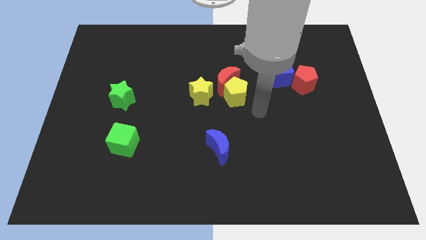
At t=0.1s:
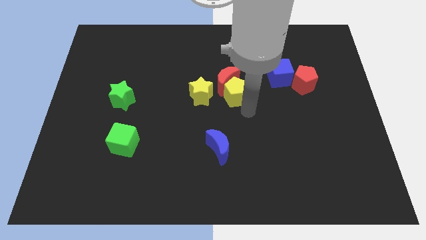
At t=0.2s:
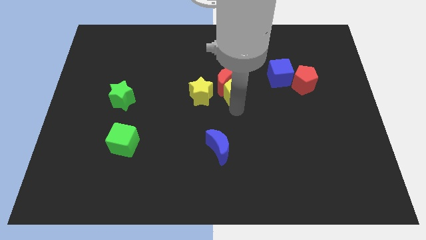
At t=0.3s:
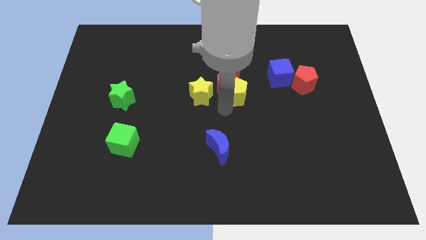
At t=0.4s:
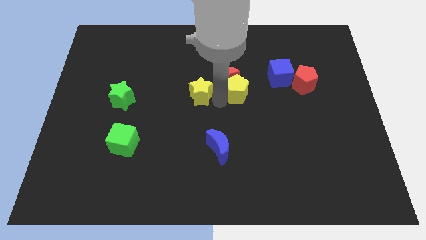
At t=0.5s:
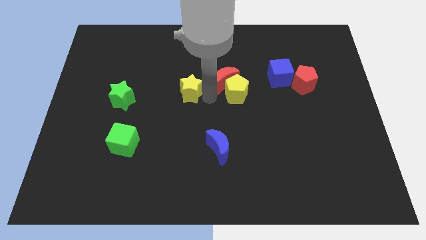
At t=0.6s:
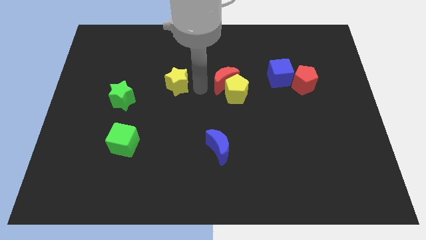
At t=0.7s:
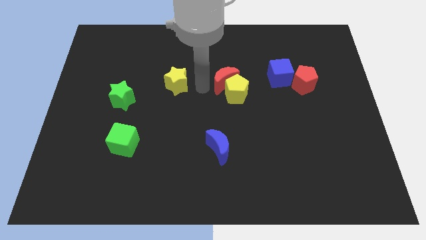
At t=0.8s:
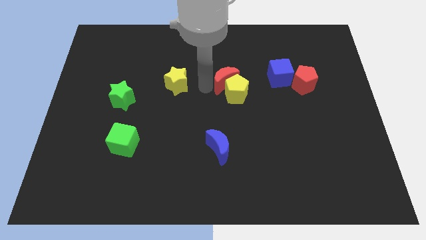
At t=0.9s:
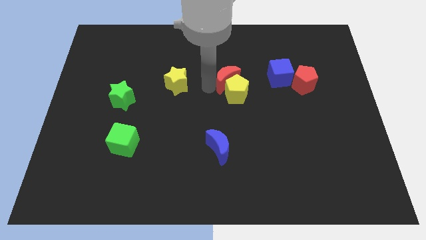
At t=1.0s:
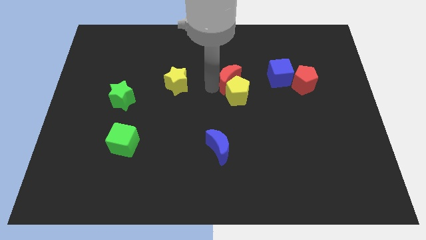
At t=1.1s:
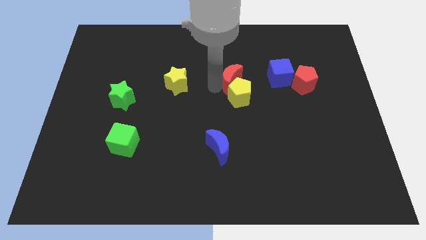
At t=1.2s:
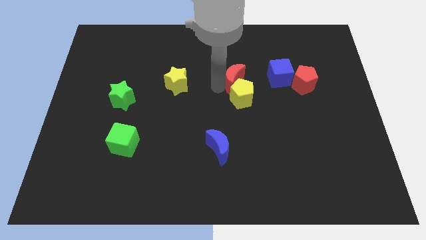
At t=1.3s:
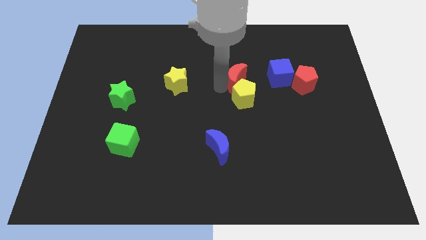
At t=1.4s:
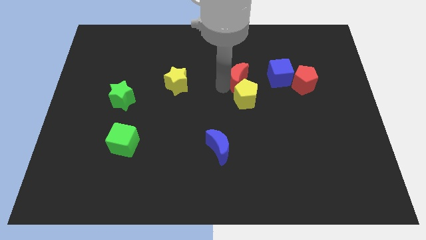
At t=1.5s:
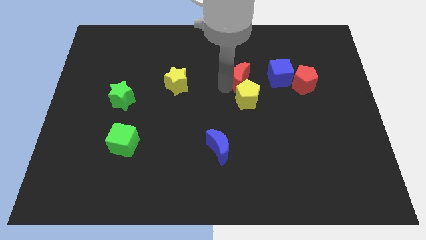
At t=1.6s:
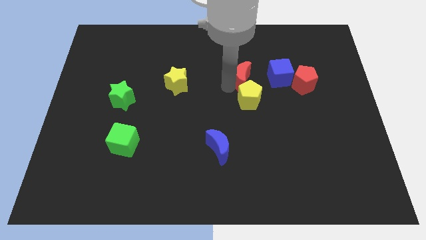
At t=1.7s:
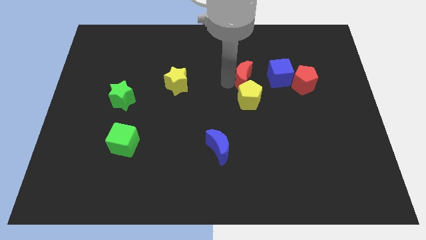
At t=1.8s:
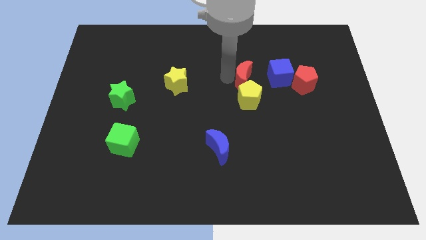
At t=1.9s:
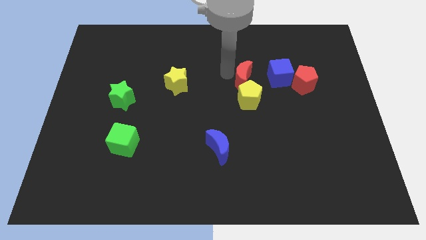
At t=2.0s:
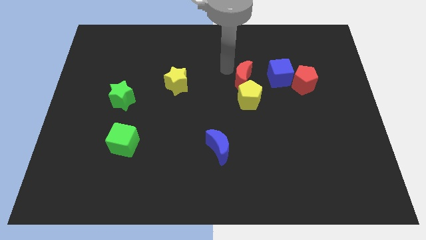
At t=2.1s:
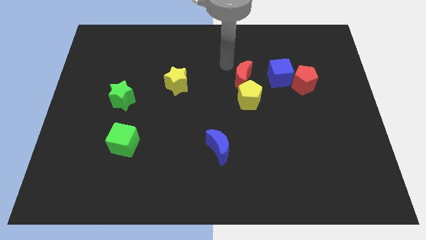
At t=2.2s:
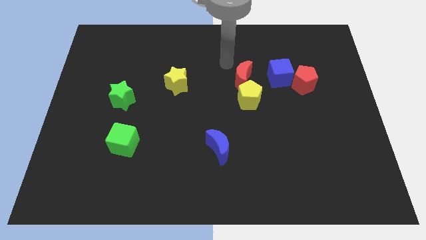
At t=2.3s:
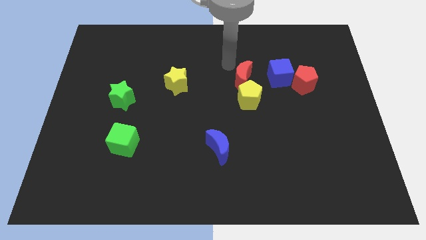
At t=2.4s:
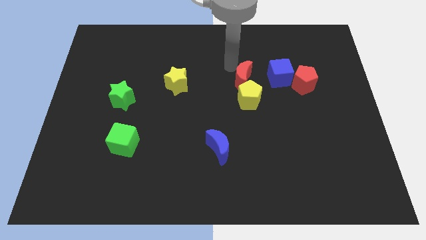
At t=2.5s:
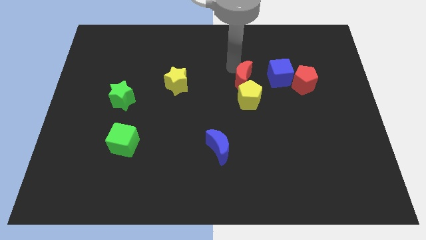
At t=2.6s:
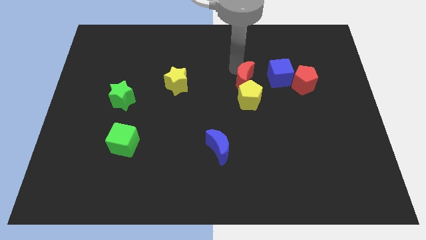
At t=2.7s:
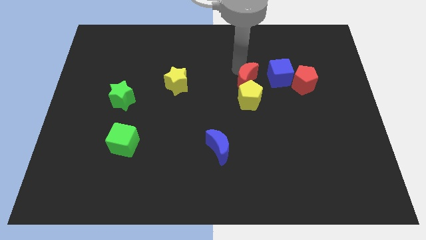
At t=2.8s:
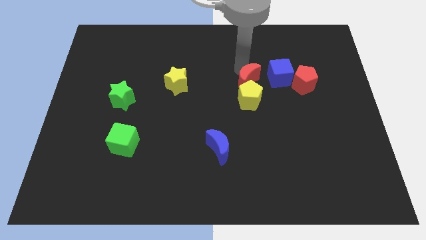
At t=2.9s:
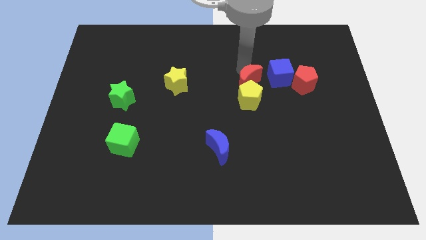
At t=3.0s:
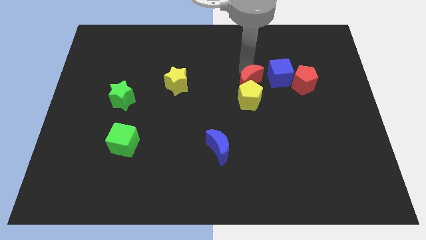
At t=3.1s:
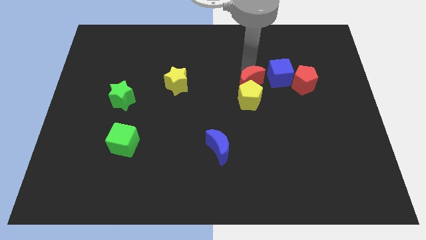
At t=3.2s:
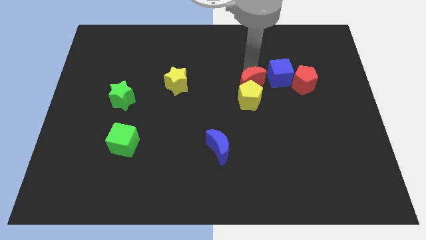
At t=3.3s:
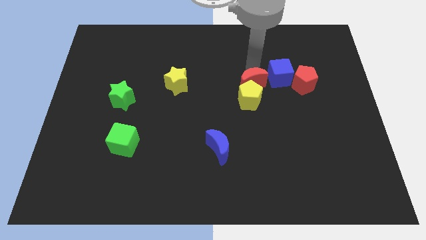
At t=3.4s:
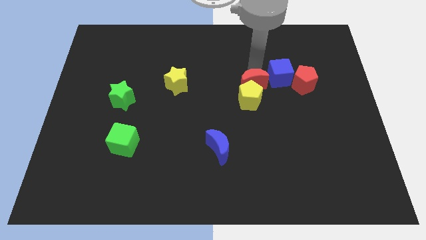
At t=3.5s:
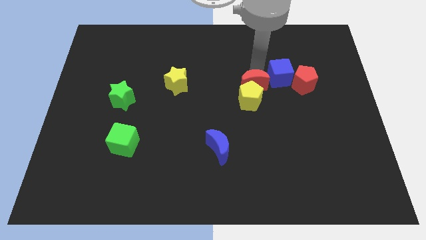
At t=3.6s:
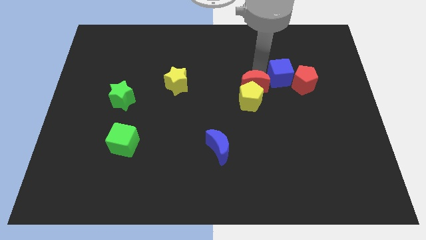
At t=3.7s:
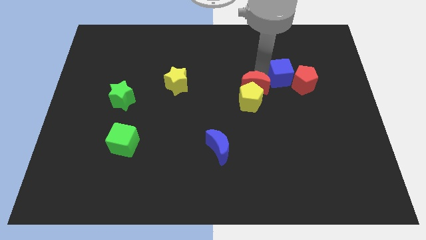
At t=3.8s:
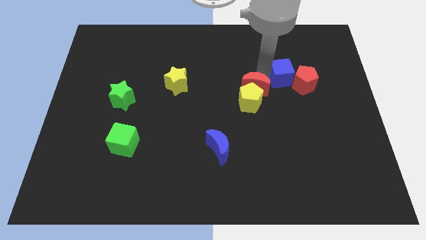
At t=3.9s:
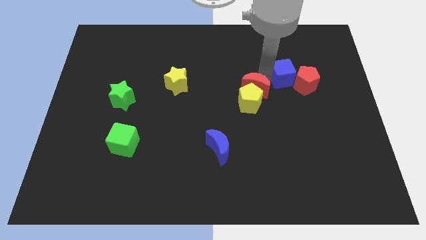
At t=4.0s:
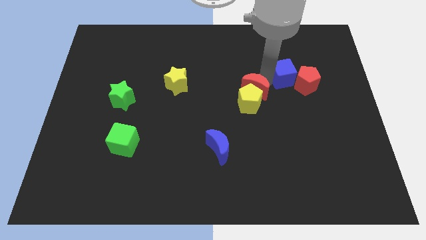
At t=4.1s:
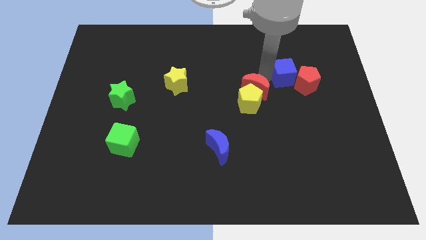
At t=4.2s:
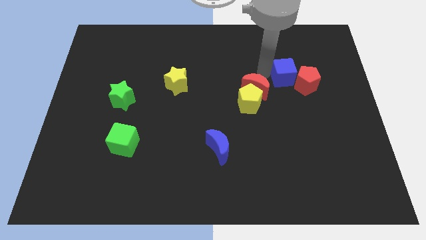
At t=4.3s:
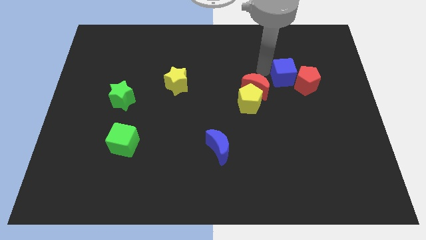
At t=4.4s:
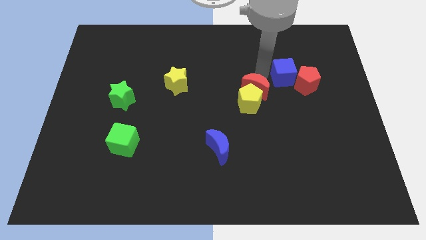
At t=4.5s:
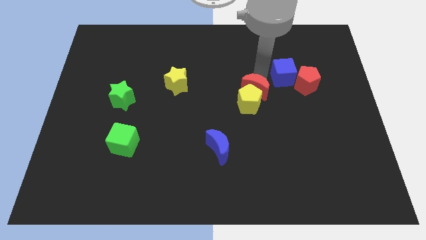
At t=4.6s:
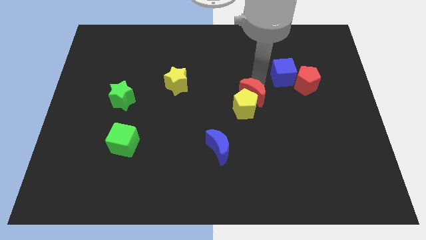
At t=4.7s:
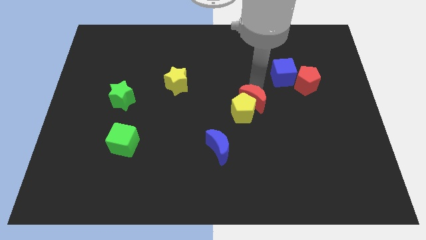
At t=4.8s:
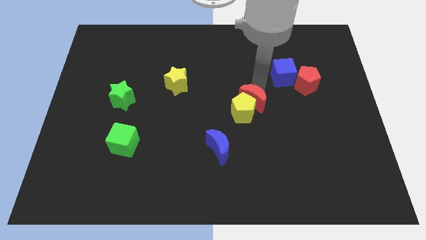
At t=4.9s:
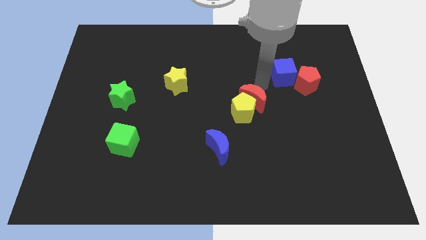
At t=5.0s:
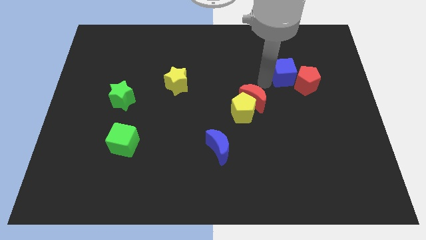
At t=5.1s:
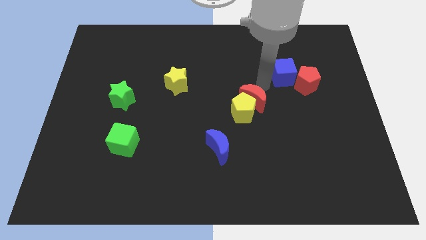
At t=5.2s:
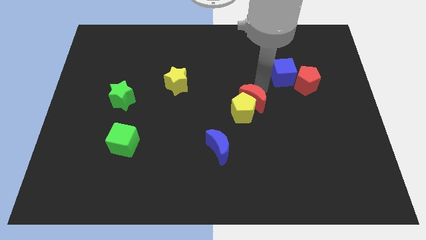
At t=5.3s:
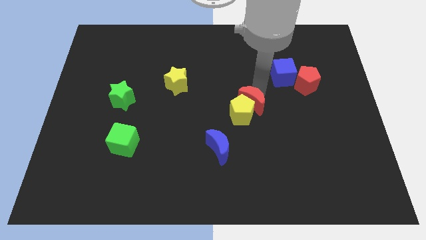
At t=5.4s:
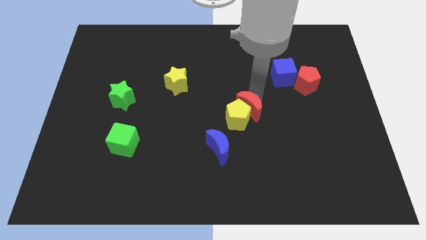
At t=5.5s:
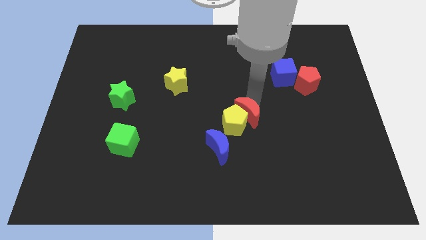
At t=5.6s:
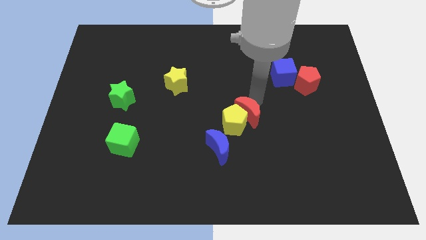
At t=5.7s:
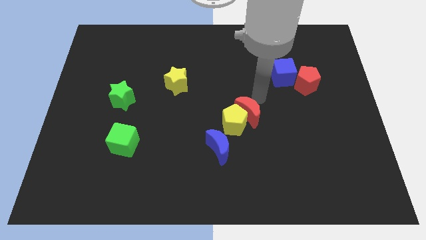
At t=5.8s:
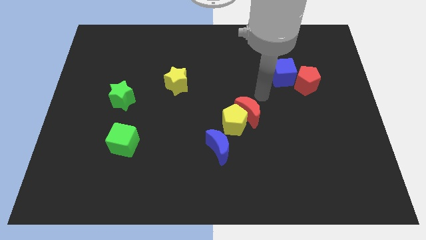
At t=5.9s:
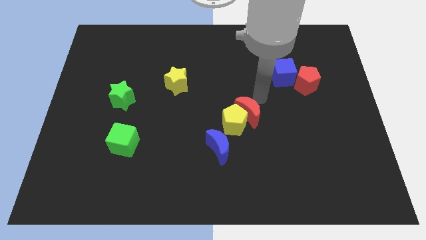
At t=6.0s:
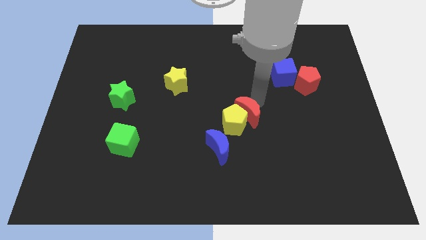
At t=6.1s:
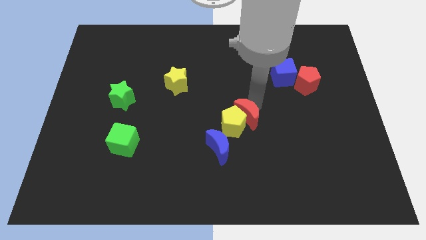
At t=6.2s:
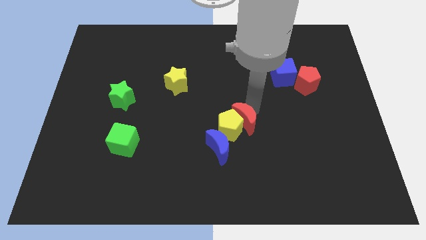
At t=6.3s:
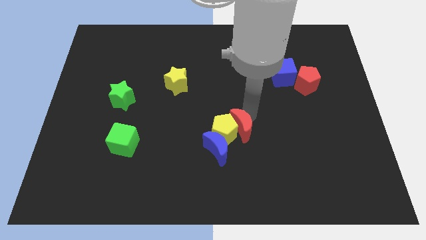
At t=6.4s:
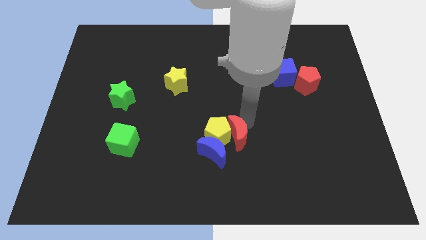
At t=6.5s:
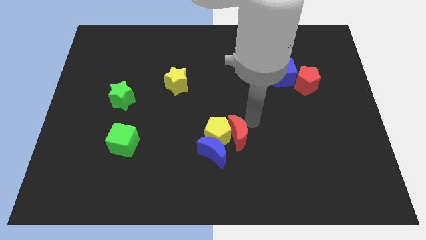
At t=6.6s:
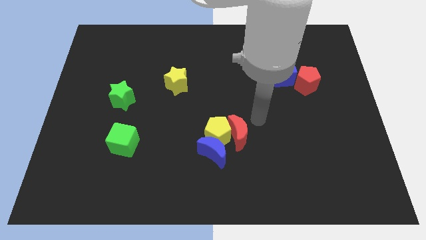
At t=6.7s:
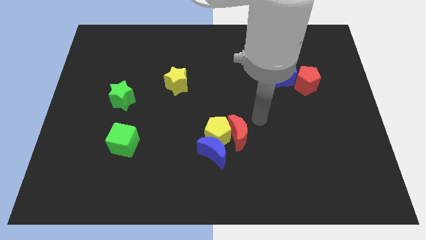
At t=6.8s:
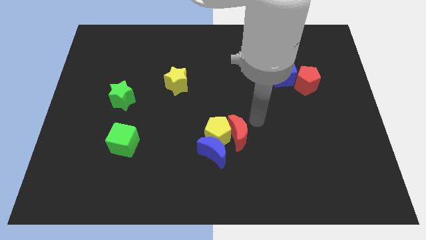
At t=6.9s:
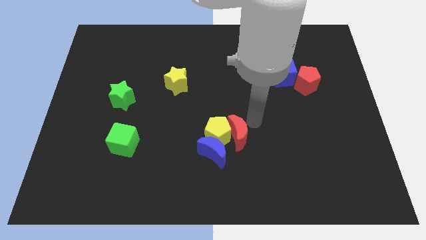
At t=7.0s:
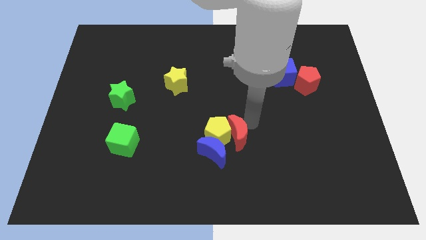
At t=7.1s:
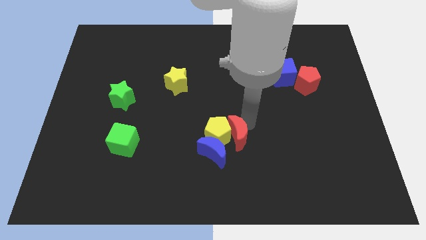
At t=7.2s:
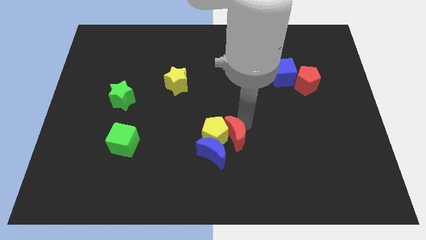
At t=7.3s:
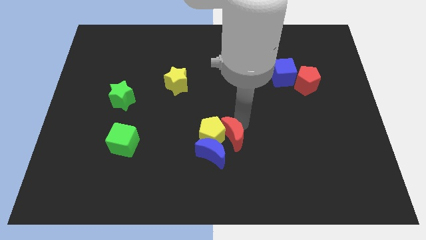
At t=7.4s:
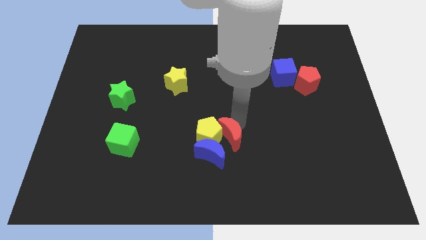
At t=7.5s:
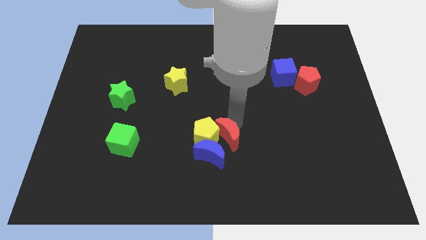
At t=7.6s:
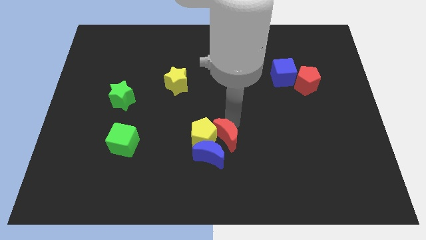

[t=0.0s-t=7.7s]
push the red moon next to the blue moon
